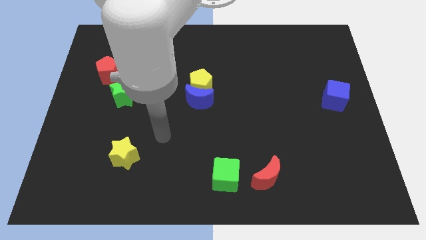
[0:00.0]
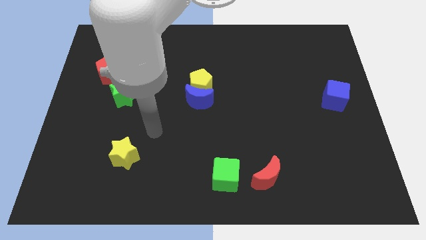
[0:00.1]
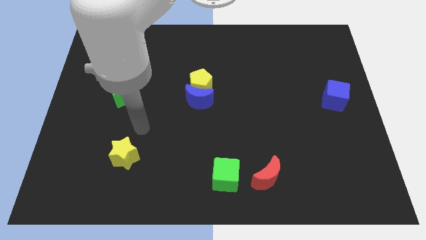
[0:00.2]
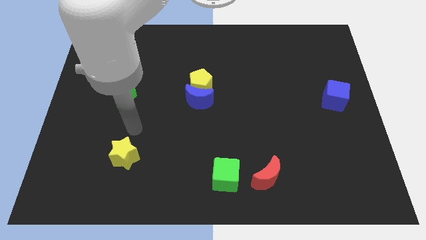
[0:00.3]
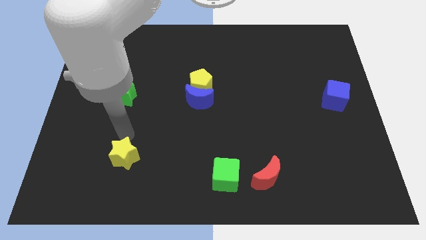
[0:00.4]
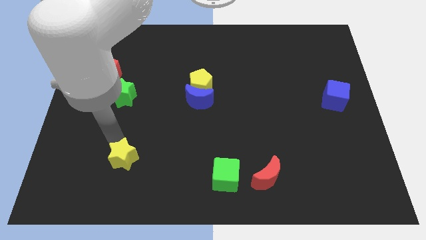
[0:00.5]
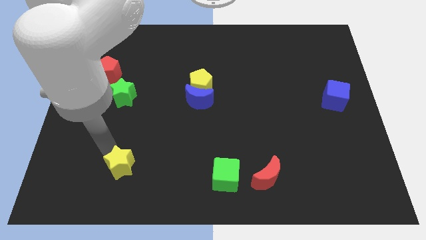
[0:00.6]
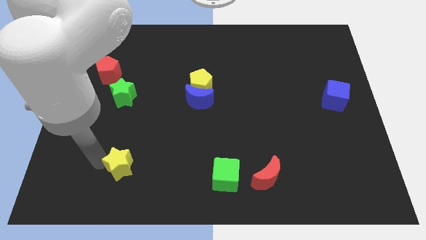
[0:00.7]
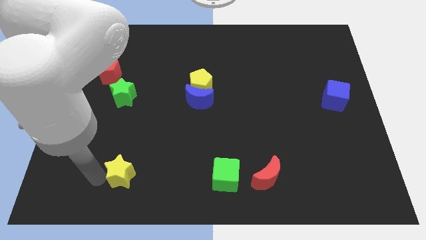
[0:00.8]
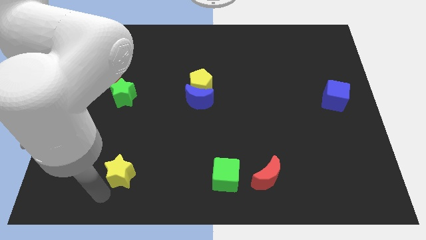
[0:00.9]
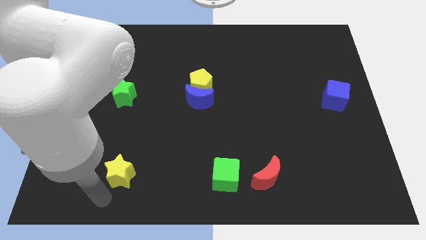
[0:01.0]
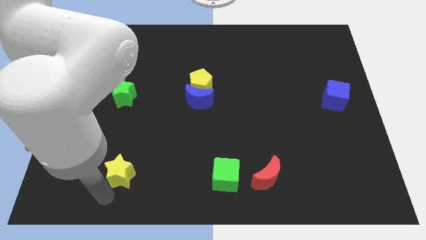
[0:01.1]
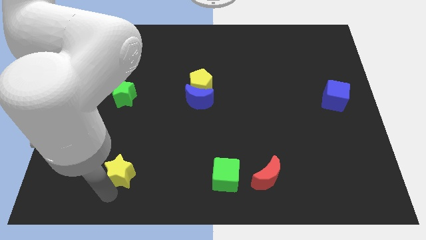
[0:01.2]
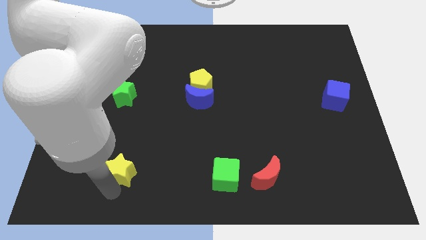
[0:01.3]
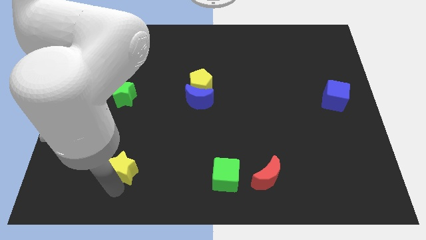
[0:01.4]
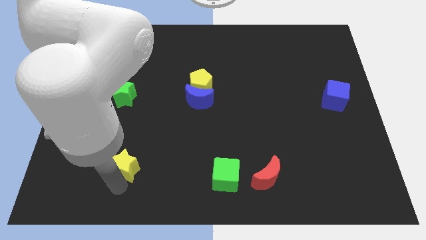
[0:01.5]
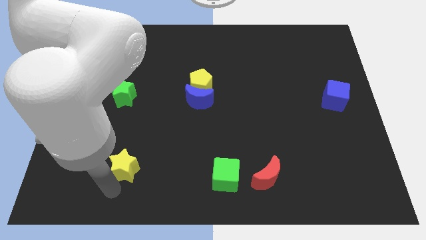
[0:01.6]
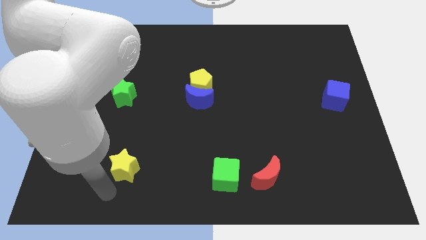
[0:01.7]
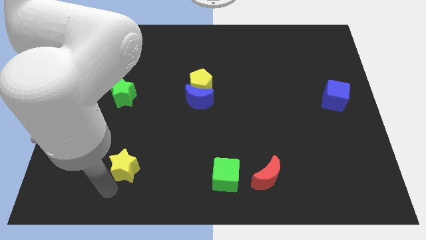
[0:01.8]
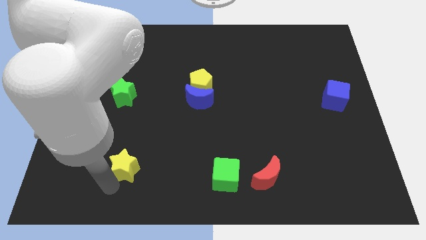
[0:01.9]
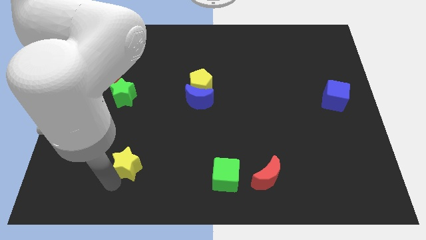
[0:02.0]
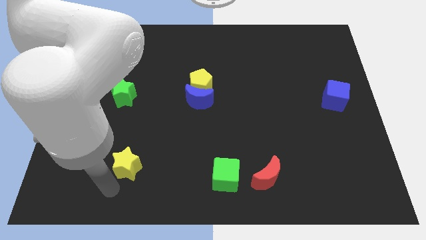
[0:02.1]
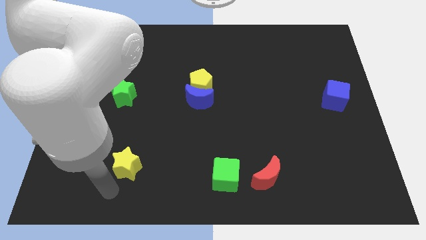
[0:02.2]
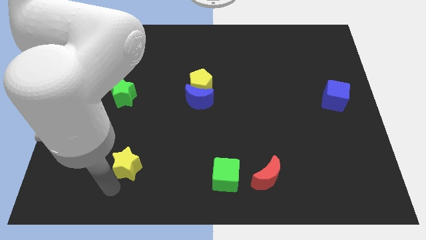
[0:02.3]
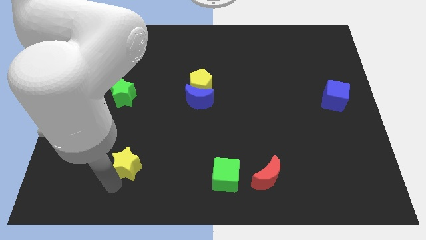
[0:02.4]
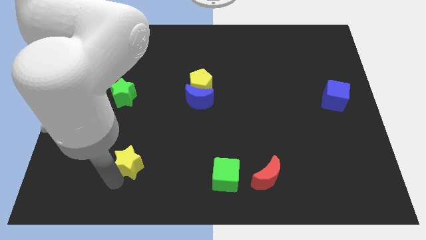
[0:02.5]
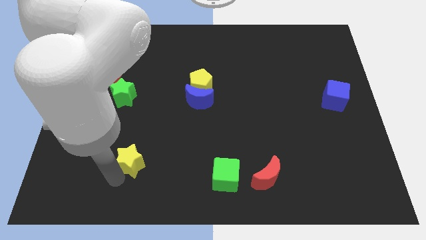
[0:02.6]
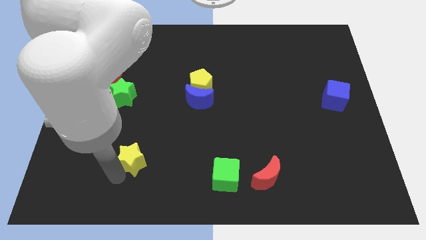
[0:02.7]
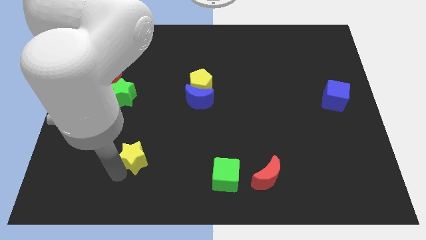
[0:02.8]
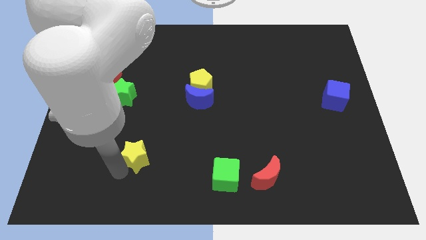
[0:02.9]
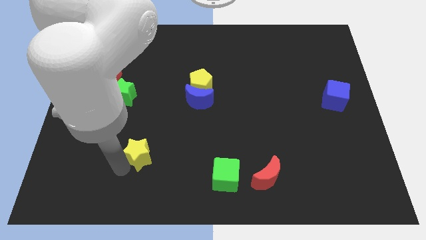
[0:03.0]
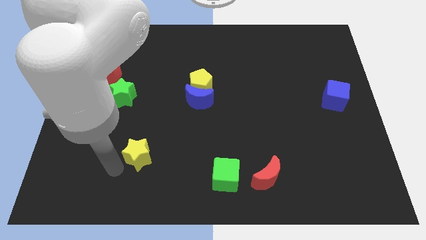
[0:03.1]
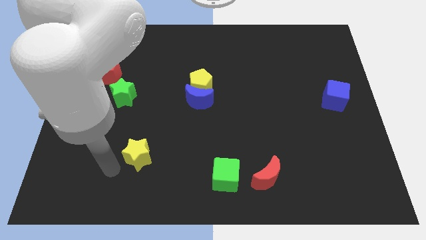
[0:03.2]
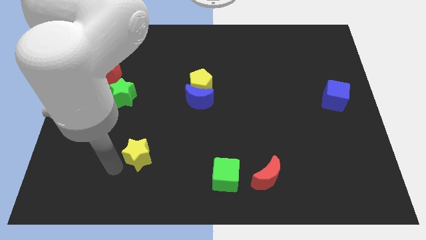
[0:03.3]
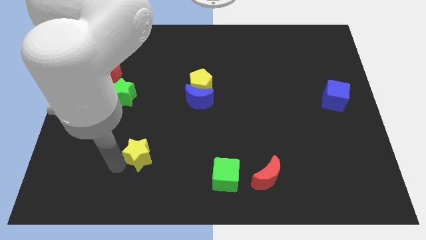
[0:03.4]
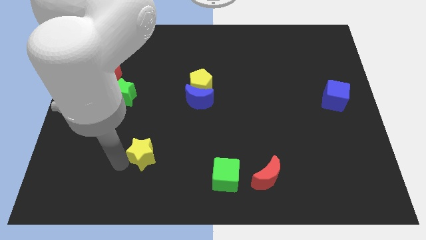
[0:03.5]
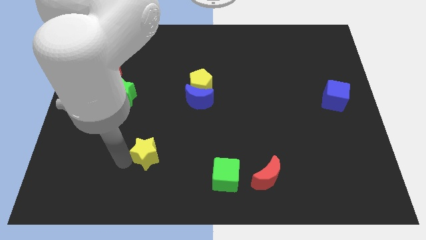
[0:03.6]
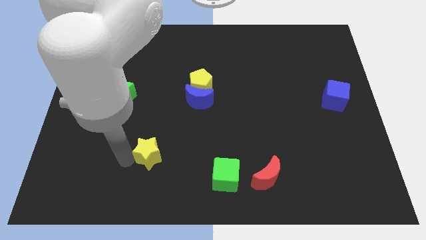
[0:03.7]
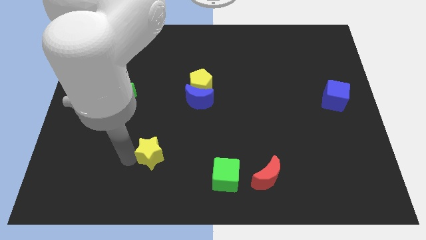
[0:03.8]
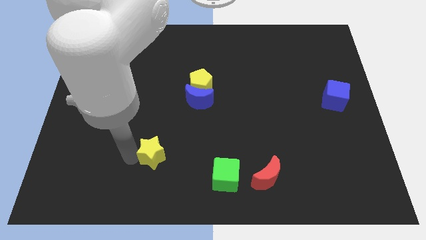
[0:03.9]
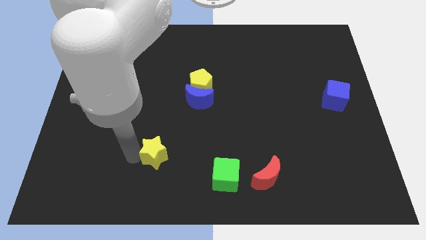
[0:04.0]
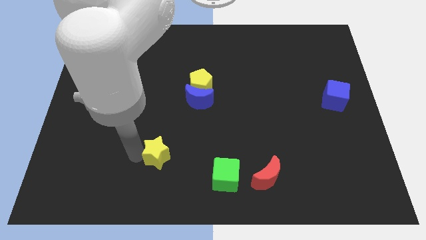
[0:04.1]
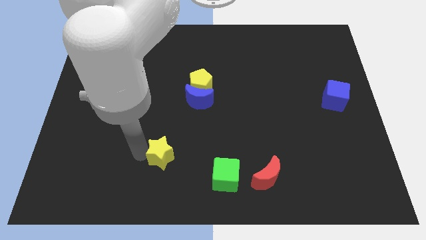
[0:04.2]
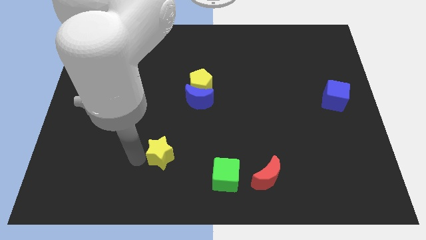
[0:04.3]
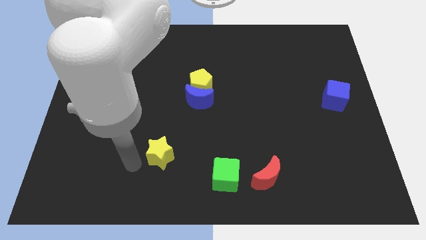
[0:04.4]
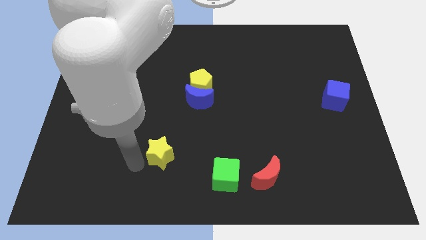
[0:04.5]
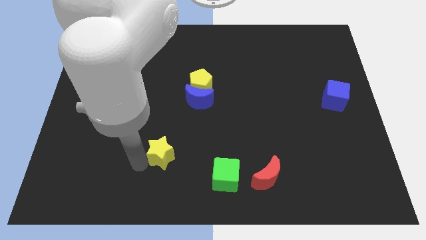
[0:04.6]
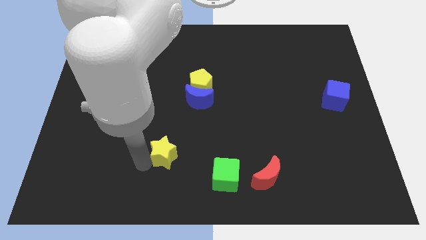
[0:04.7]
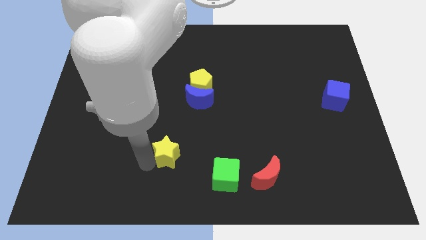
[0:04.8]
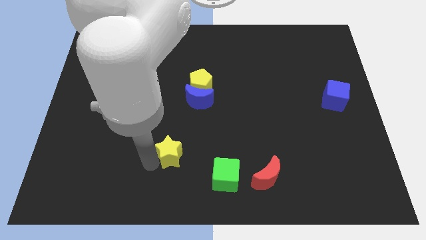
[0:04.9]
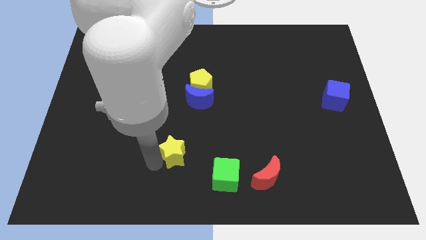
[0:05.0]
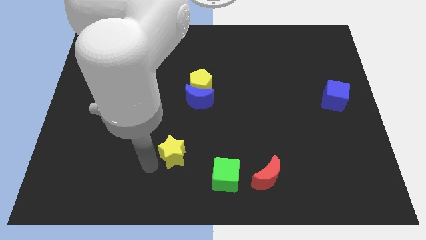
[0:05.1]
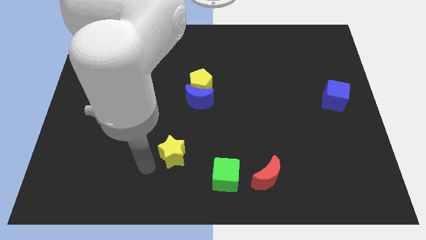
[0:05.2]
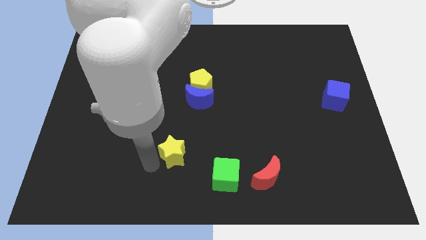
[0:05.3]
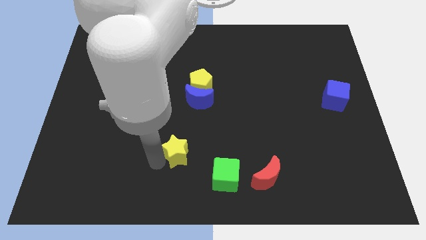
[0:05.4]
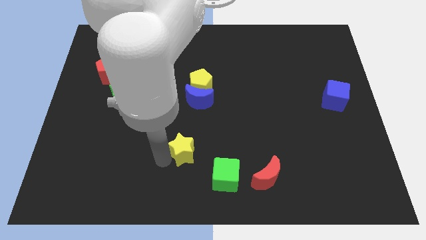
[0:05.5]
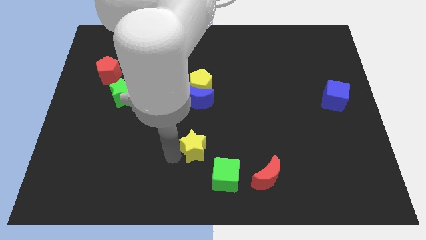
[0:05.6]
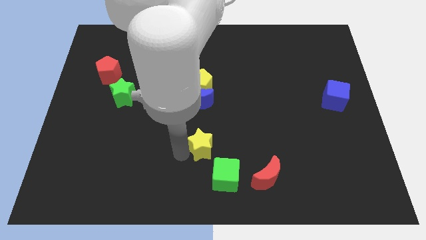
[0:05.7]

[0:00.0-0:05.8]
push the yellow star to the top of the green cube
